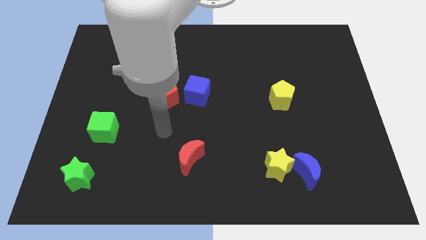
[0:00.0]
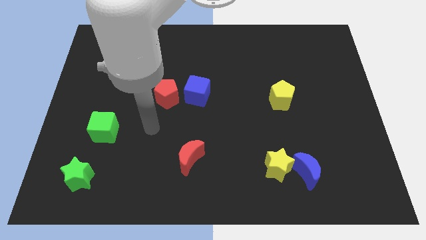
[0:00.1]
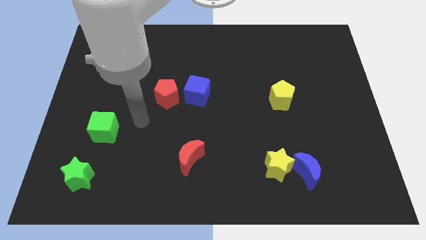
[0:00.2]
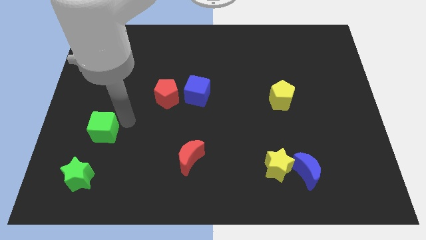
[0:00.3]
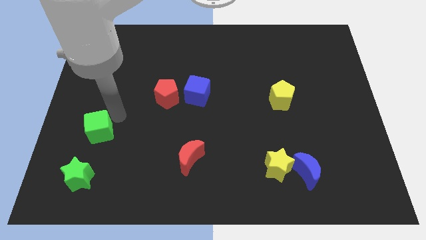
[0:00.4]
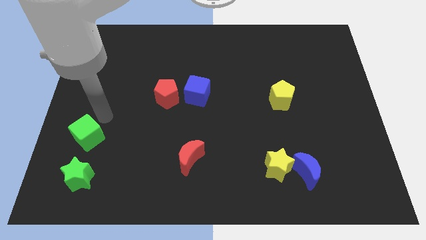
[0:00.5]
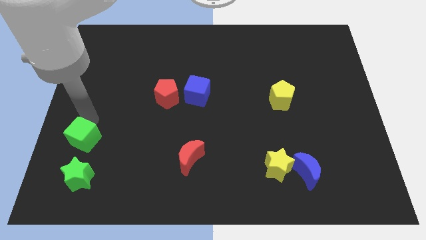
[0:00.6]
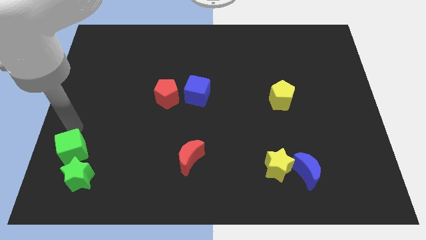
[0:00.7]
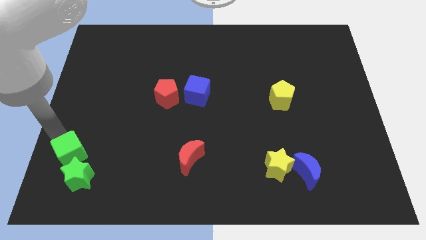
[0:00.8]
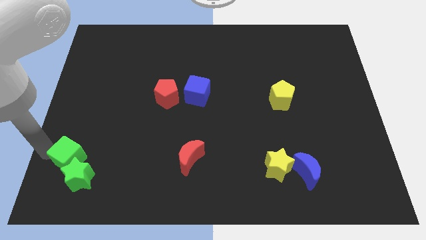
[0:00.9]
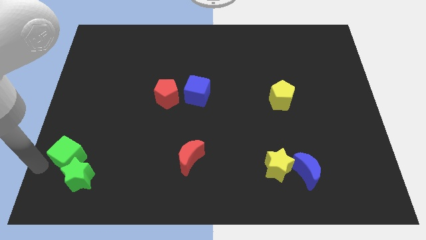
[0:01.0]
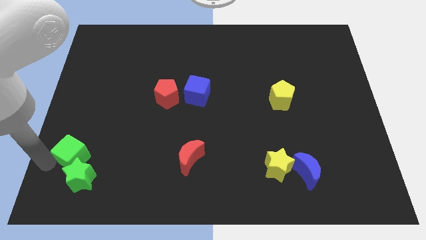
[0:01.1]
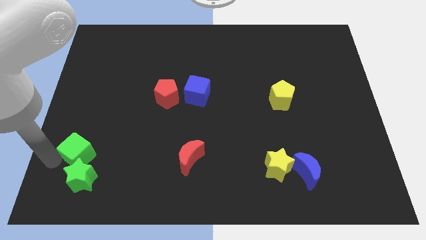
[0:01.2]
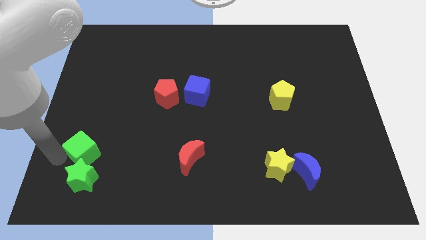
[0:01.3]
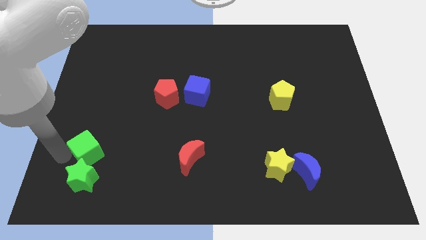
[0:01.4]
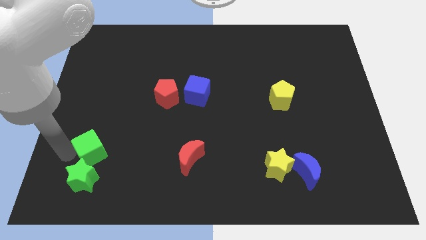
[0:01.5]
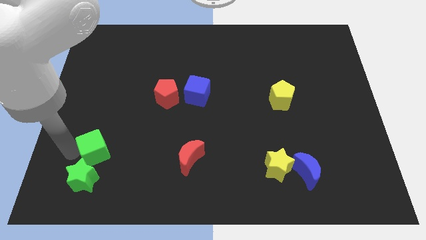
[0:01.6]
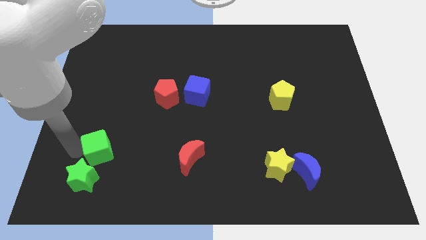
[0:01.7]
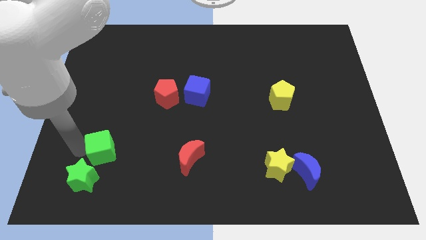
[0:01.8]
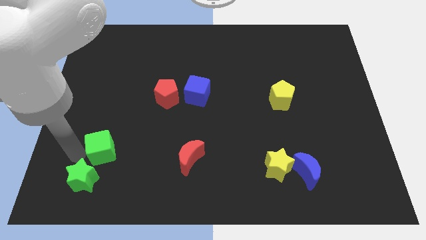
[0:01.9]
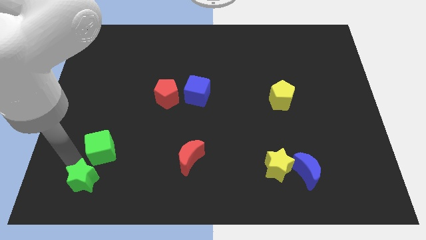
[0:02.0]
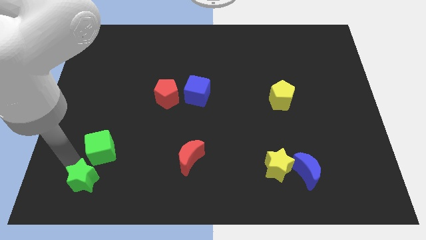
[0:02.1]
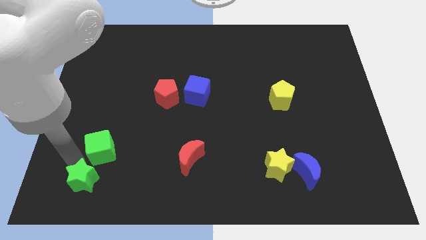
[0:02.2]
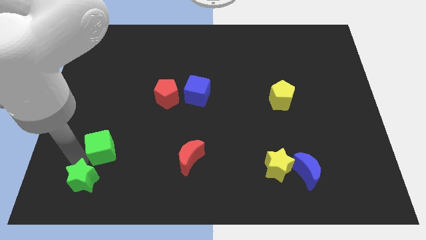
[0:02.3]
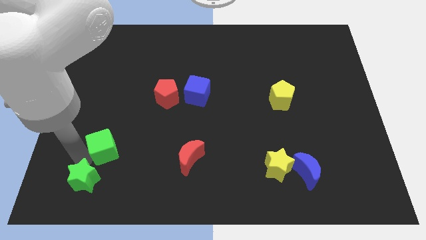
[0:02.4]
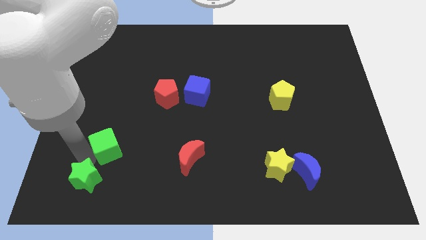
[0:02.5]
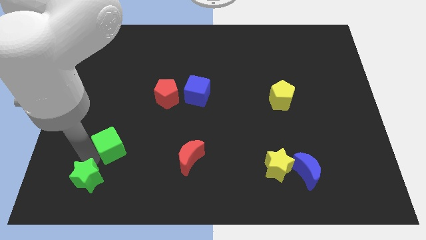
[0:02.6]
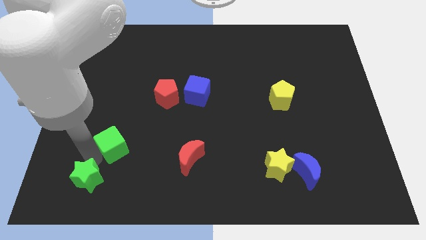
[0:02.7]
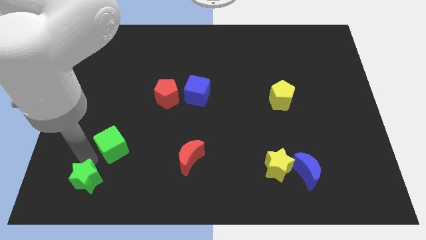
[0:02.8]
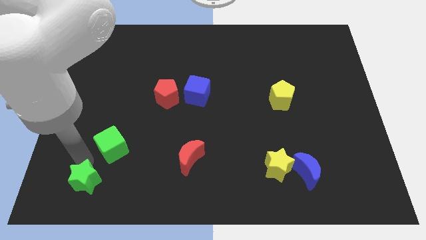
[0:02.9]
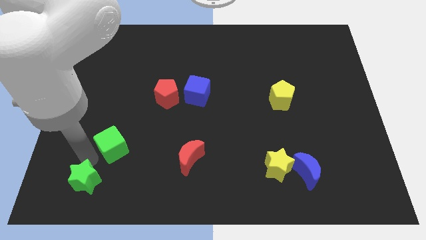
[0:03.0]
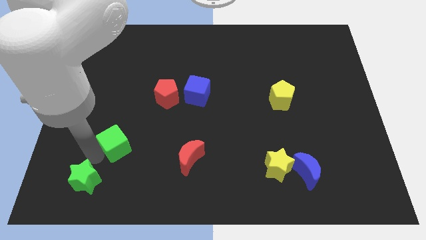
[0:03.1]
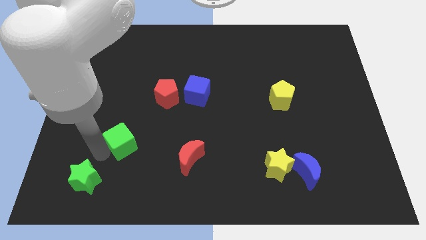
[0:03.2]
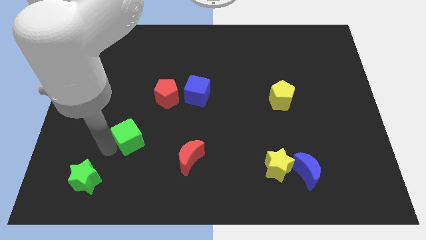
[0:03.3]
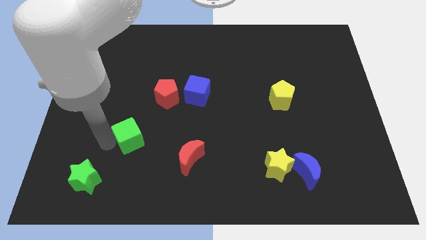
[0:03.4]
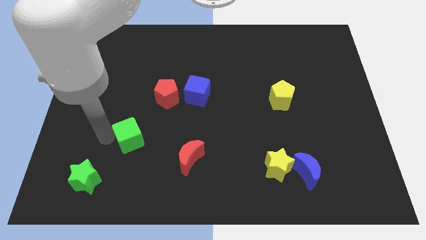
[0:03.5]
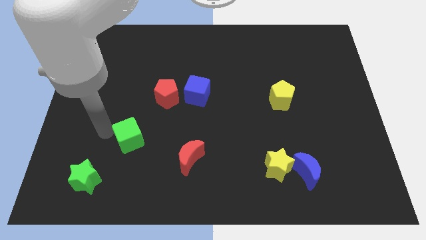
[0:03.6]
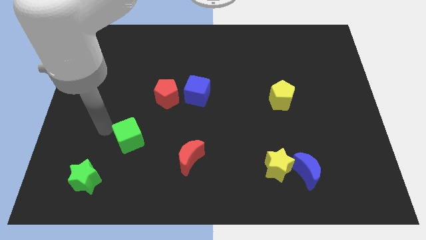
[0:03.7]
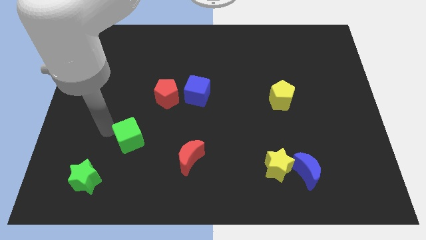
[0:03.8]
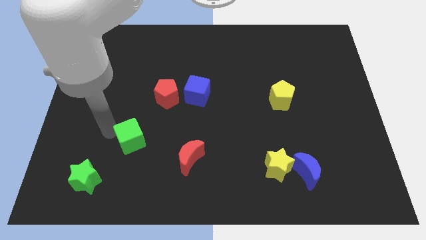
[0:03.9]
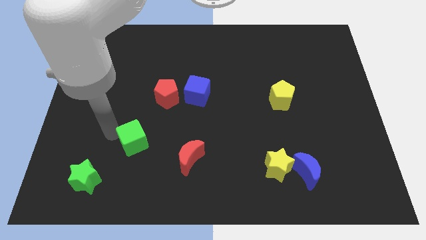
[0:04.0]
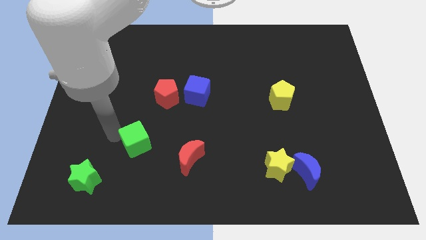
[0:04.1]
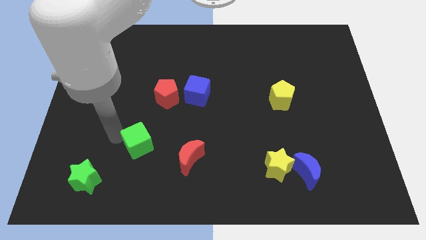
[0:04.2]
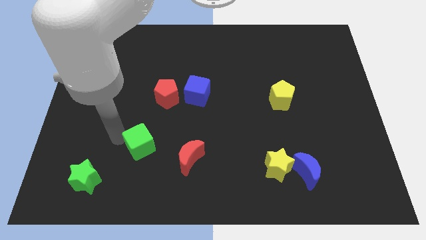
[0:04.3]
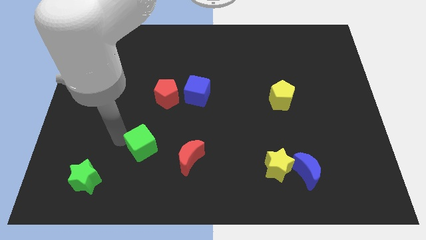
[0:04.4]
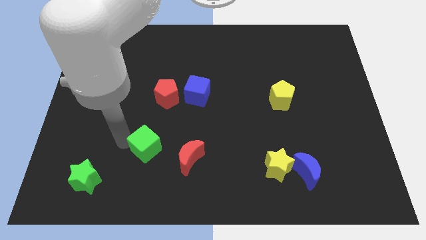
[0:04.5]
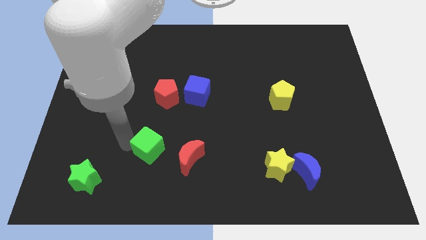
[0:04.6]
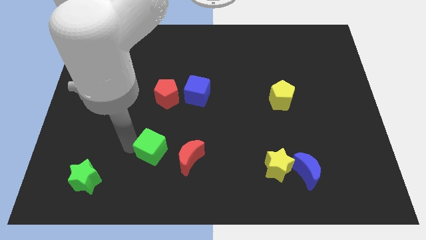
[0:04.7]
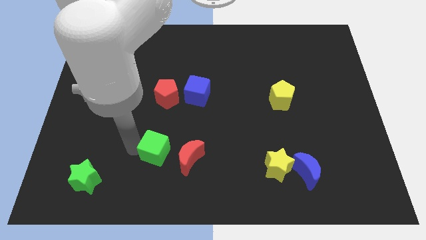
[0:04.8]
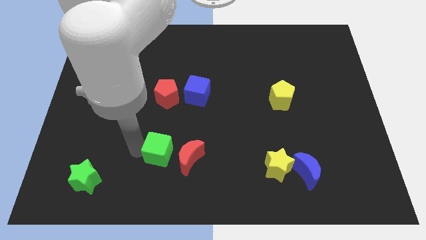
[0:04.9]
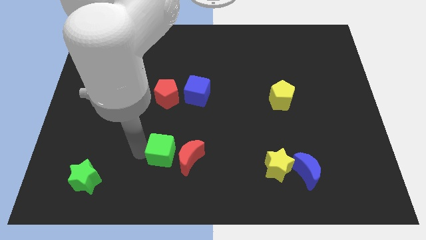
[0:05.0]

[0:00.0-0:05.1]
slide the green cube to the red moon

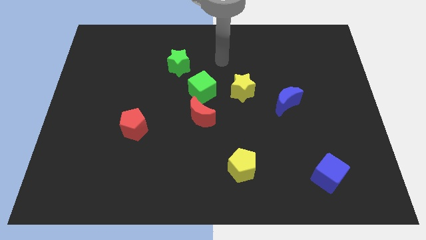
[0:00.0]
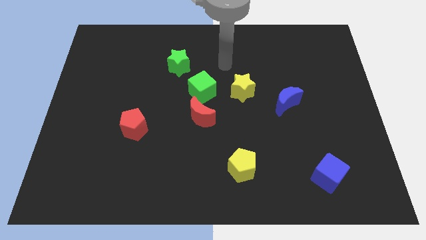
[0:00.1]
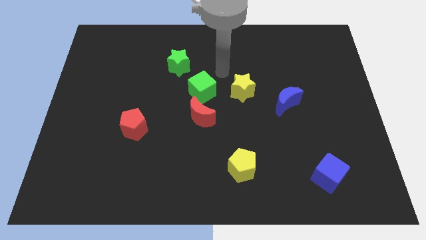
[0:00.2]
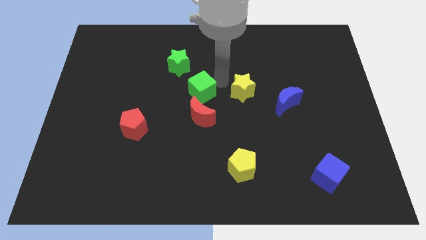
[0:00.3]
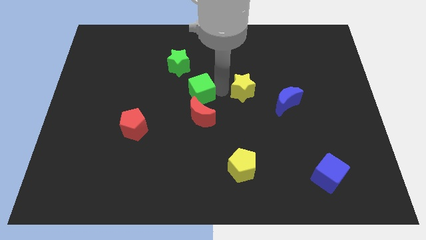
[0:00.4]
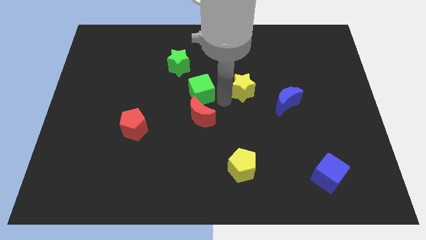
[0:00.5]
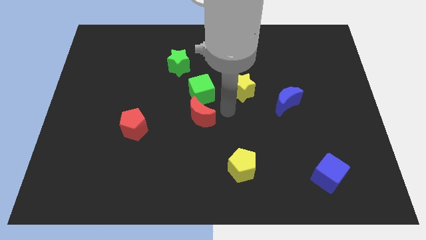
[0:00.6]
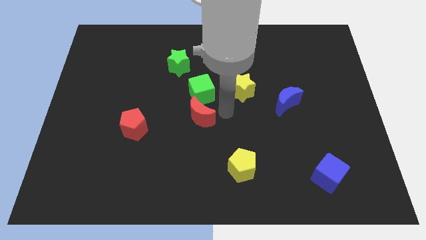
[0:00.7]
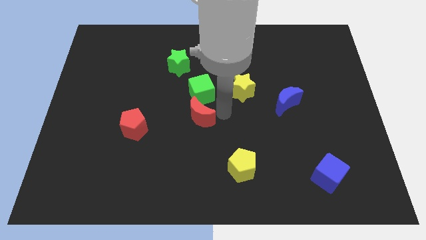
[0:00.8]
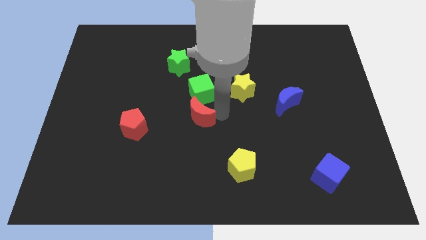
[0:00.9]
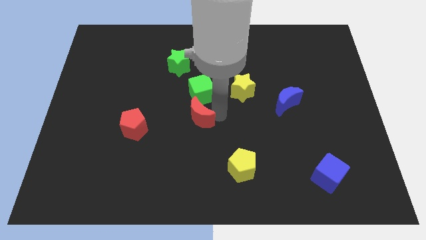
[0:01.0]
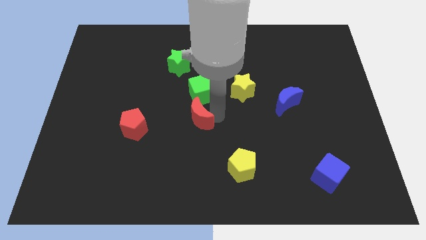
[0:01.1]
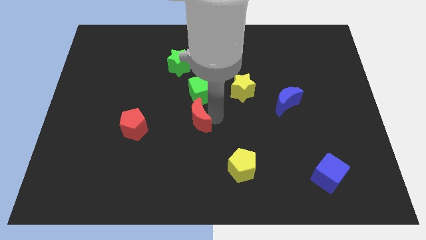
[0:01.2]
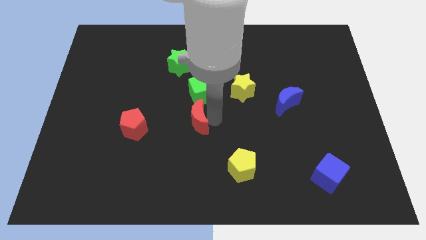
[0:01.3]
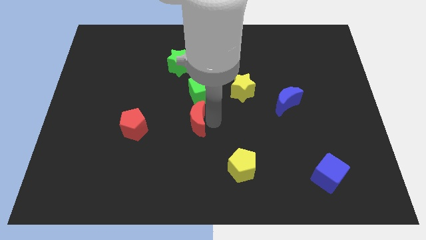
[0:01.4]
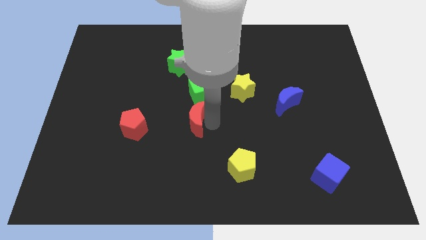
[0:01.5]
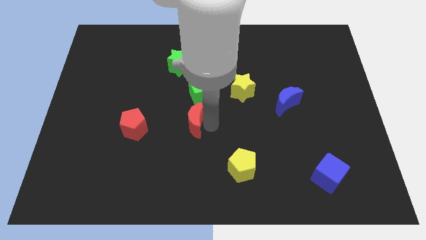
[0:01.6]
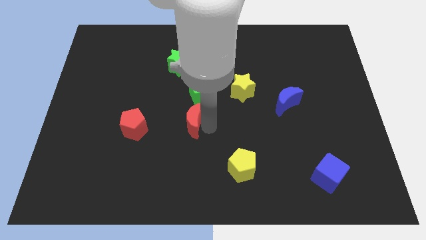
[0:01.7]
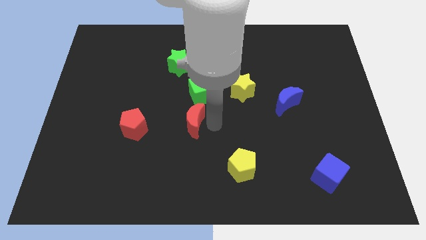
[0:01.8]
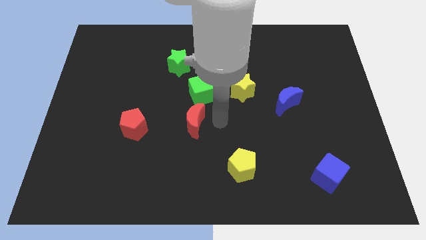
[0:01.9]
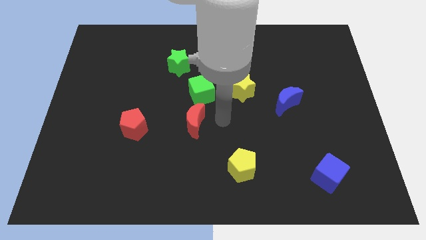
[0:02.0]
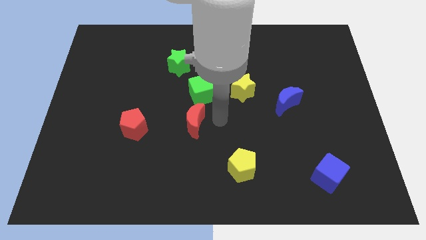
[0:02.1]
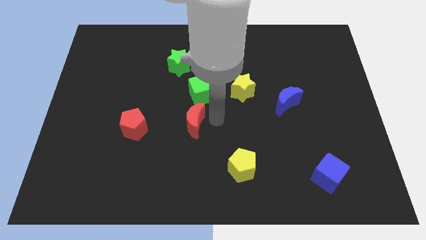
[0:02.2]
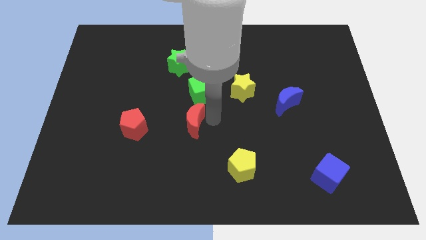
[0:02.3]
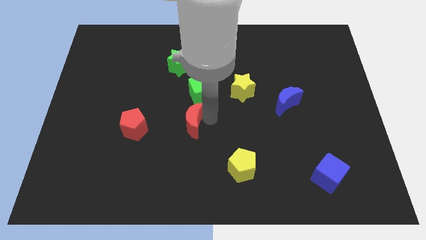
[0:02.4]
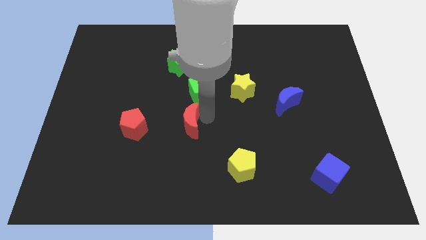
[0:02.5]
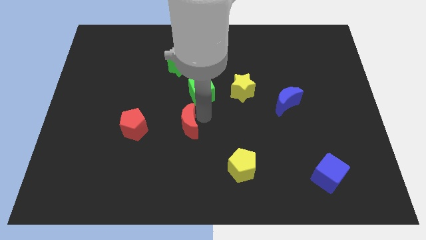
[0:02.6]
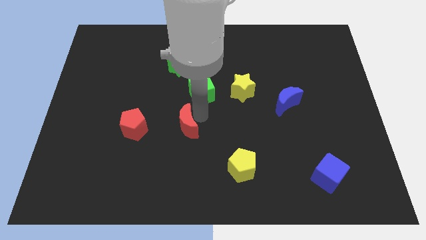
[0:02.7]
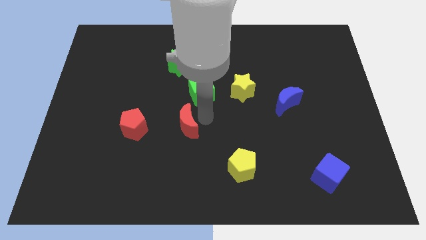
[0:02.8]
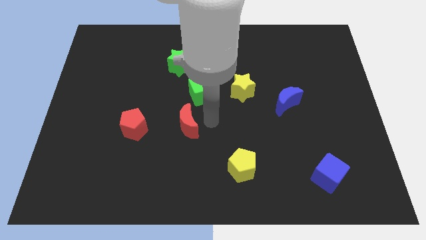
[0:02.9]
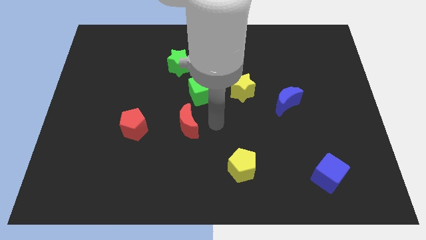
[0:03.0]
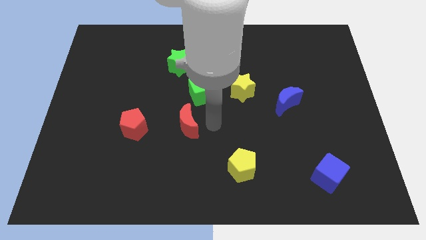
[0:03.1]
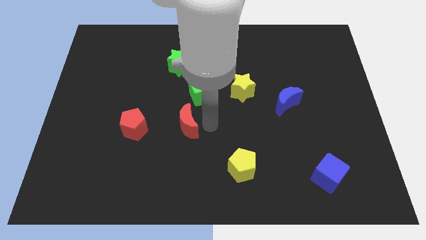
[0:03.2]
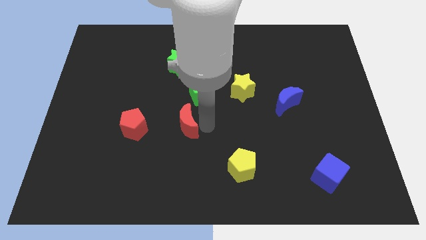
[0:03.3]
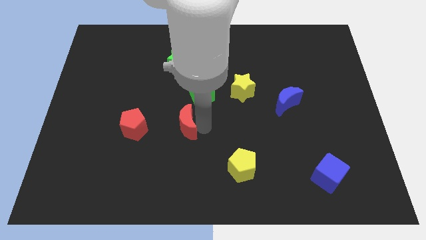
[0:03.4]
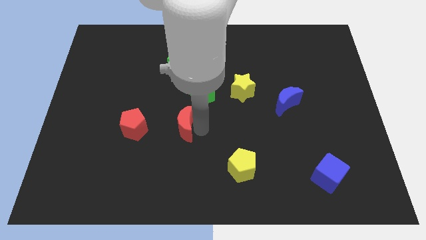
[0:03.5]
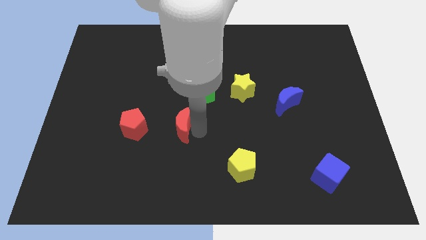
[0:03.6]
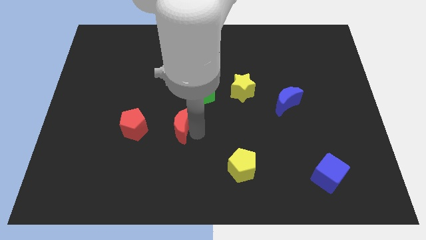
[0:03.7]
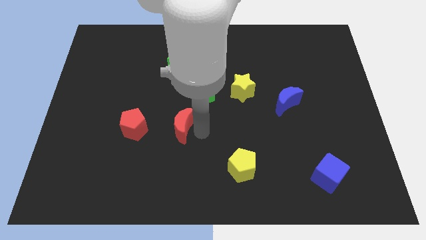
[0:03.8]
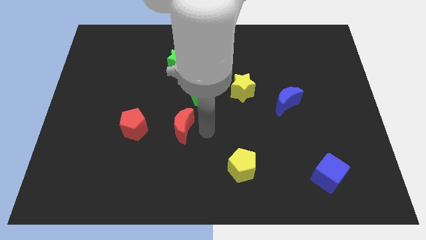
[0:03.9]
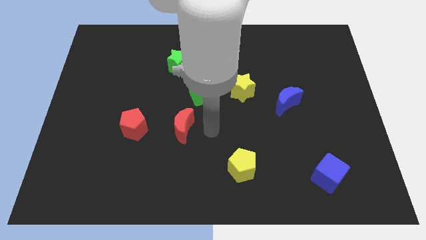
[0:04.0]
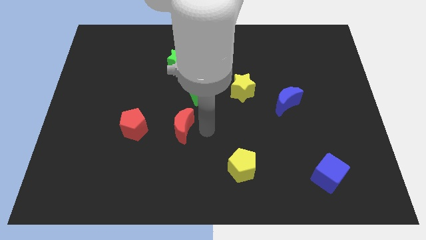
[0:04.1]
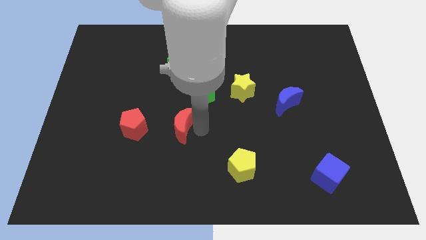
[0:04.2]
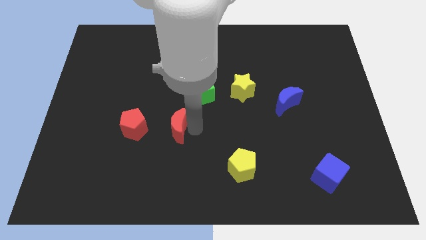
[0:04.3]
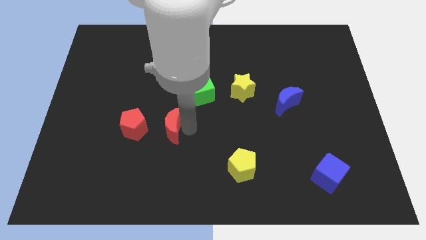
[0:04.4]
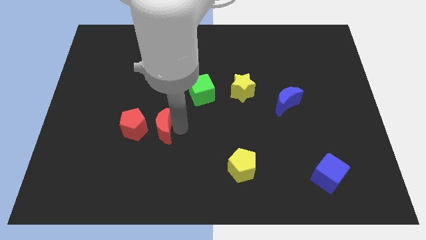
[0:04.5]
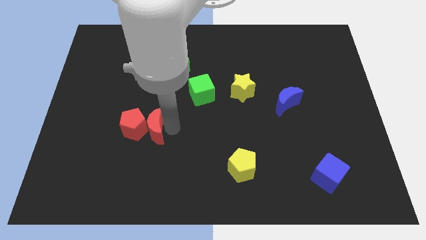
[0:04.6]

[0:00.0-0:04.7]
put the red moon towards the red pentagon
